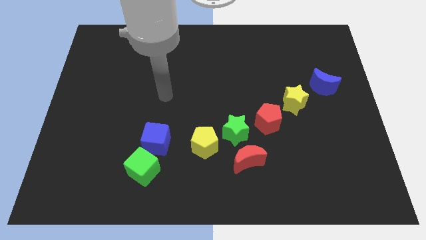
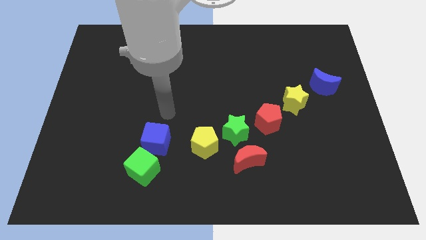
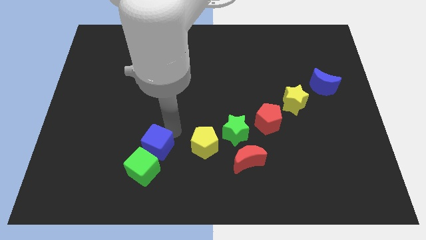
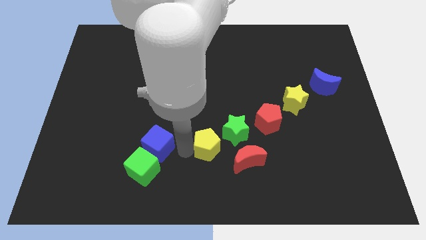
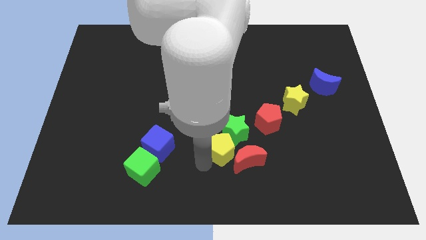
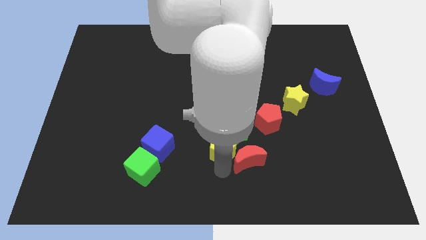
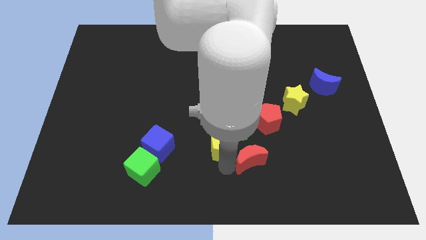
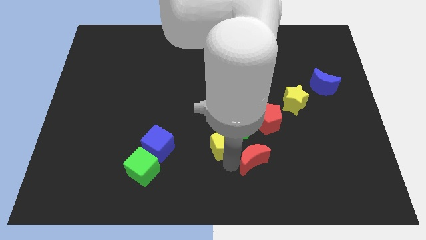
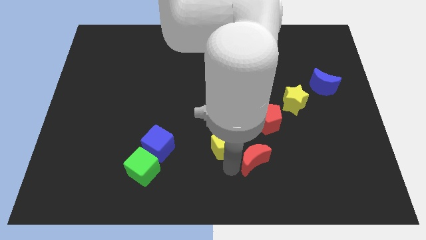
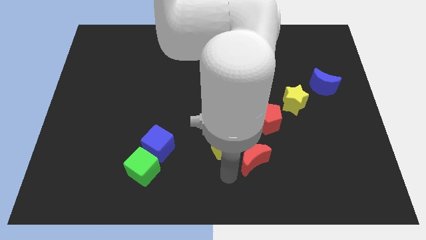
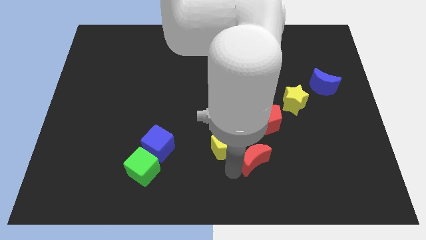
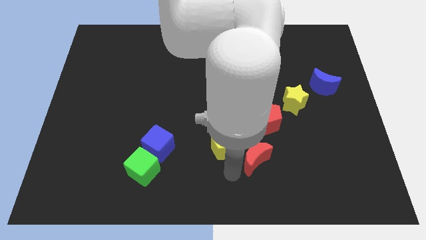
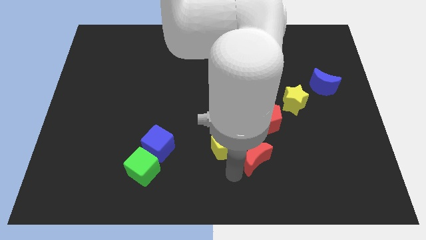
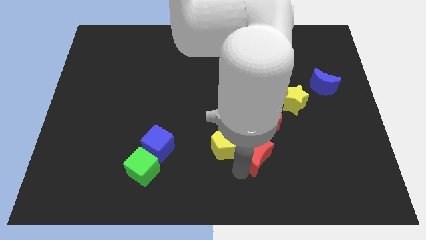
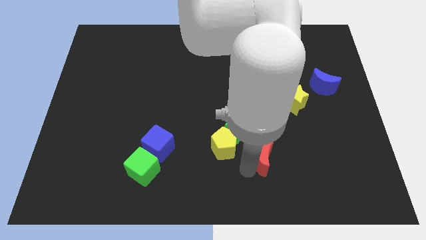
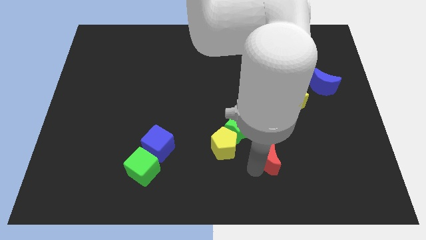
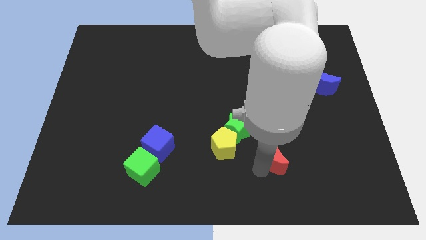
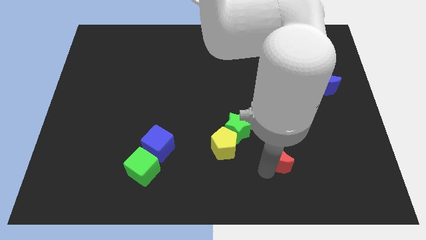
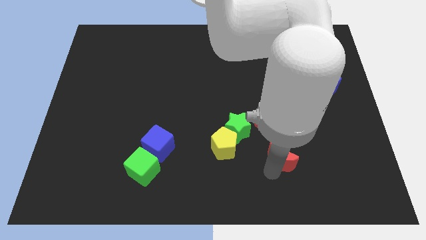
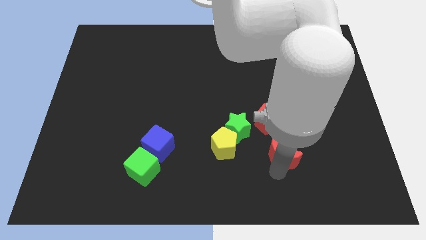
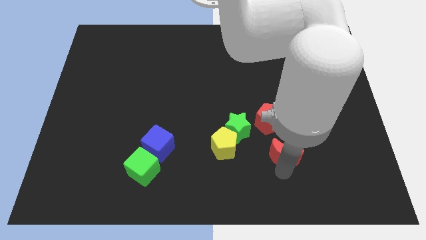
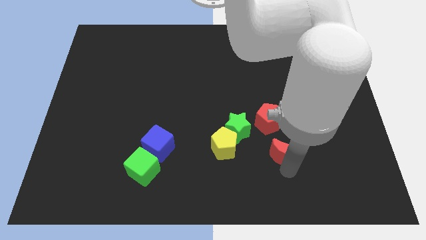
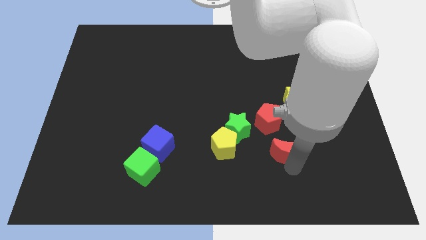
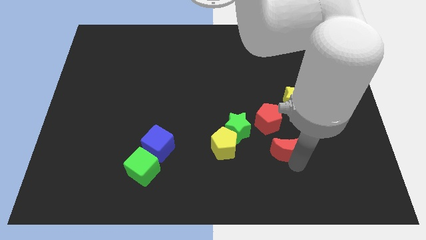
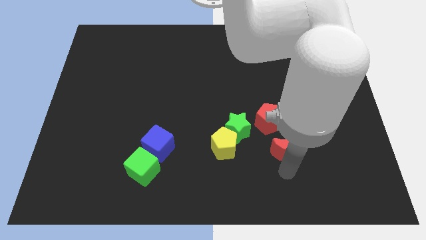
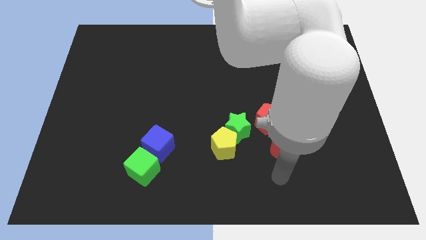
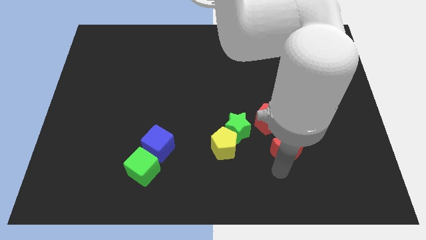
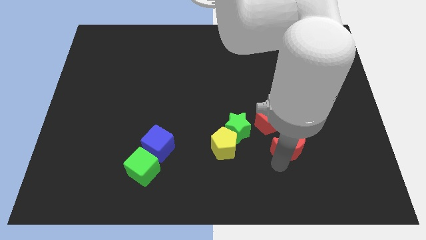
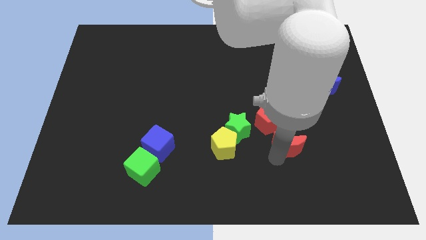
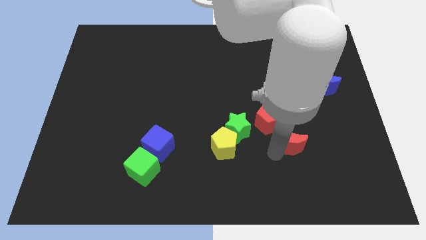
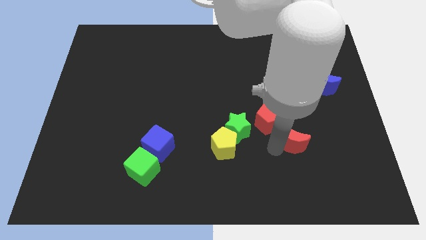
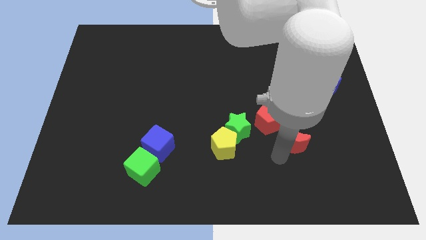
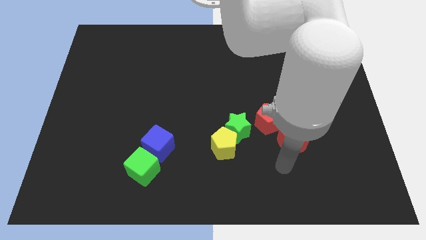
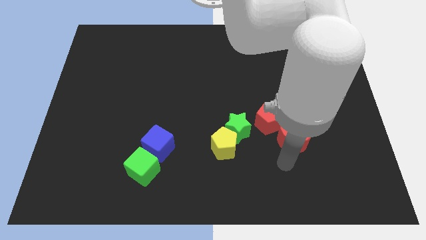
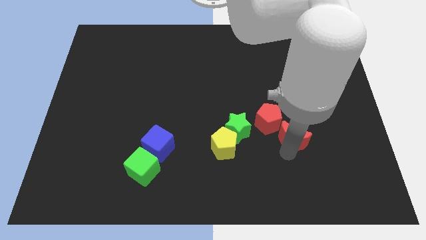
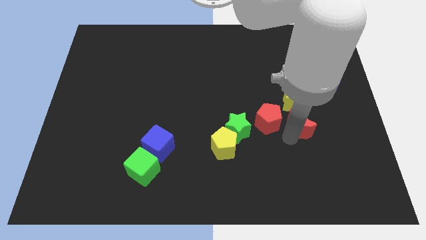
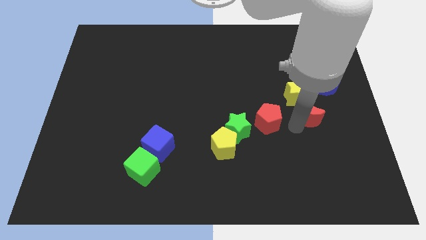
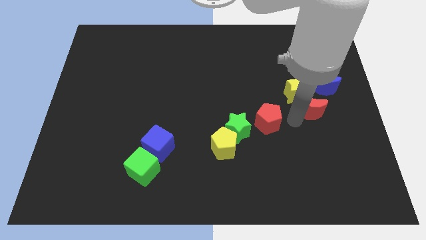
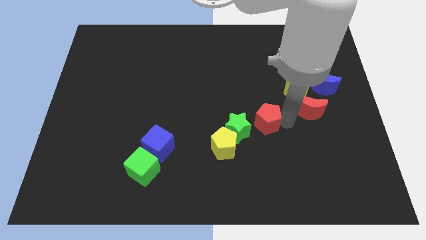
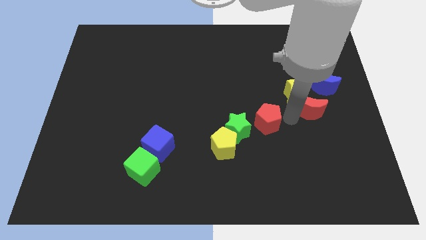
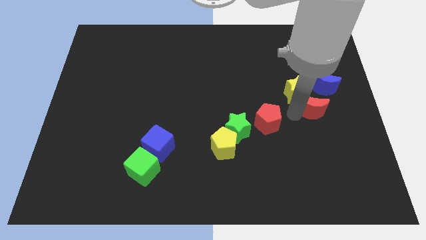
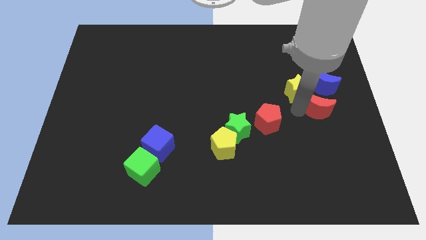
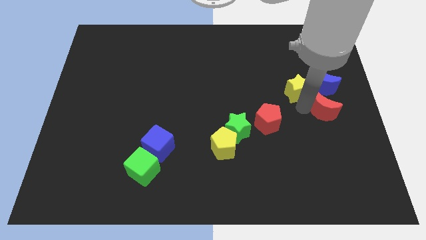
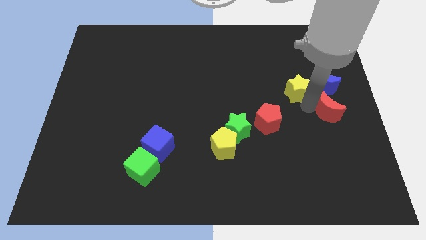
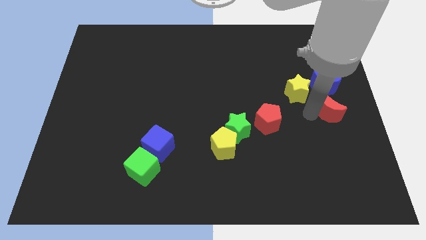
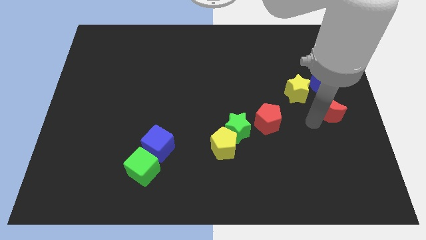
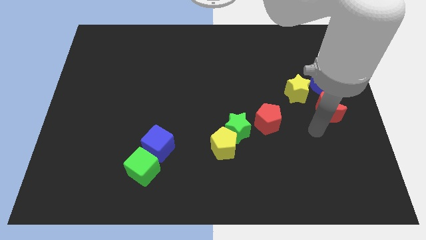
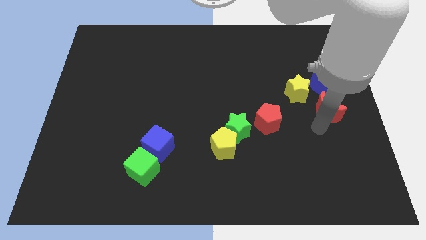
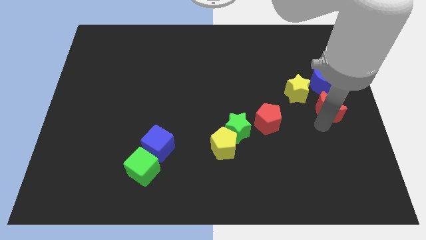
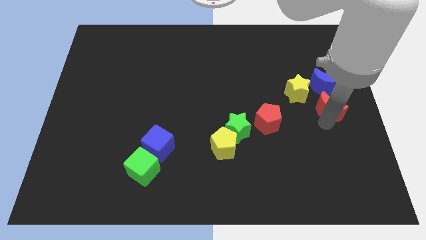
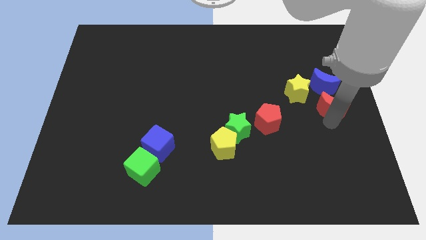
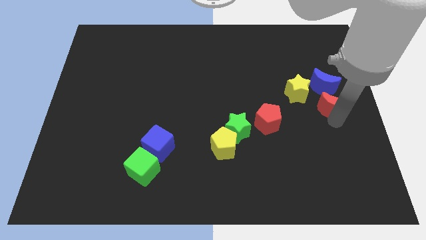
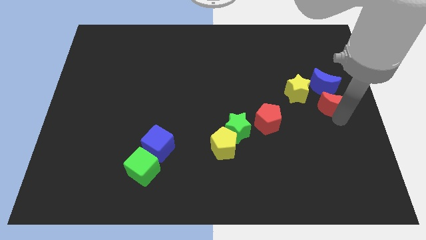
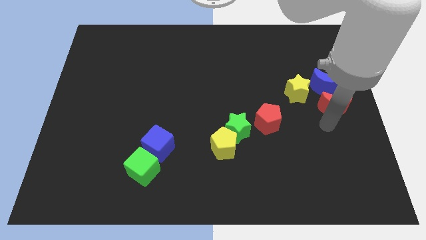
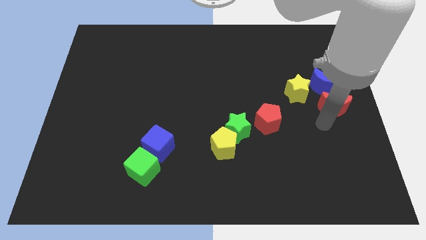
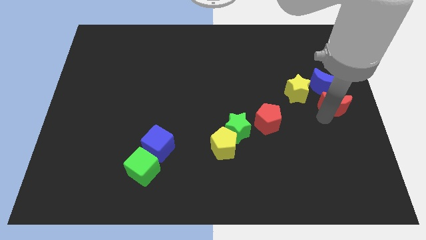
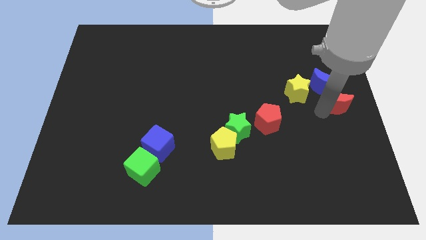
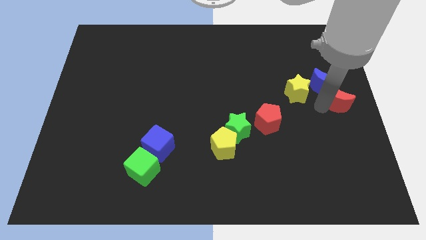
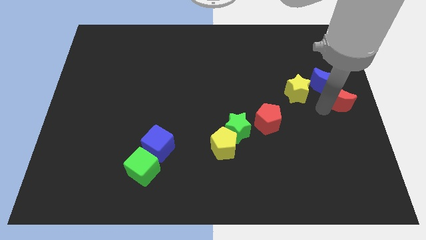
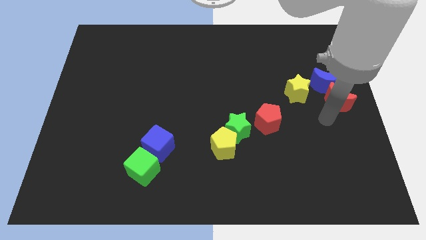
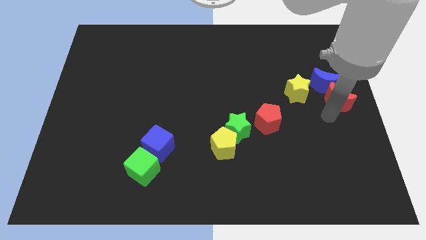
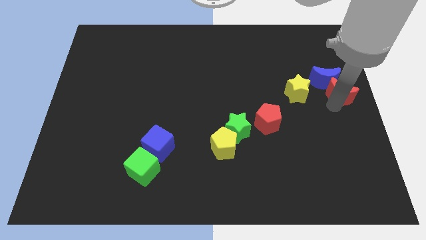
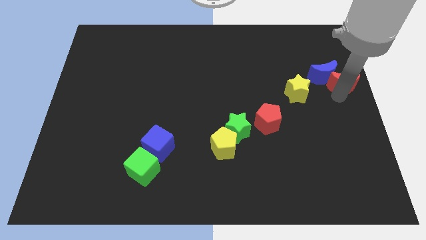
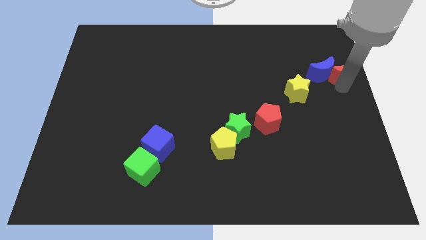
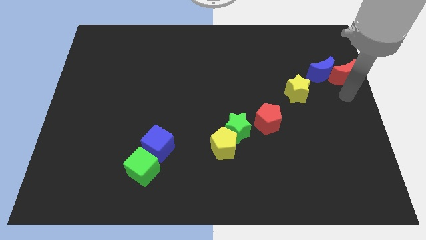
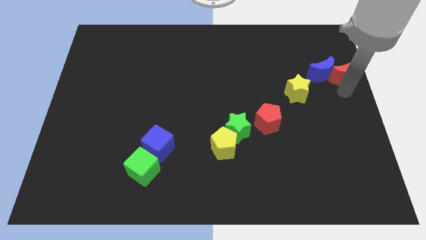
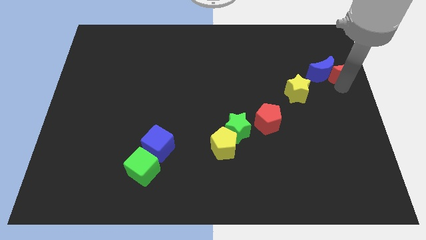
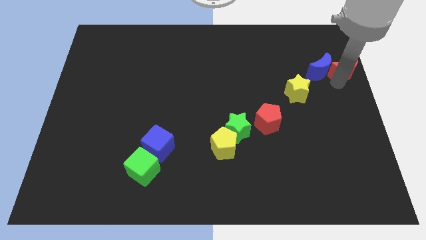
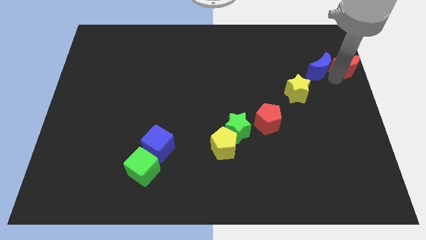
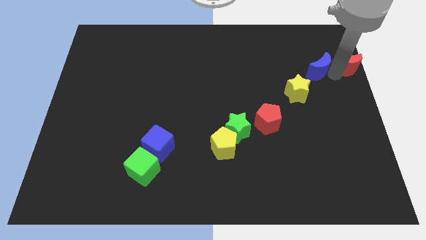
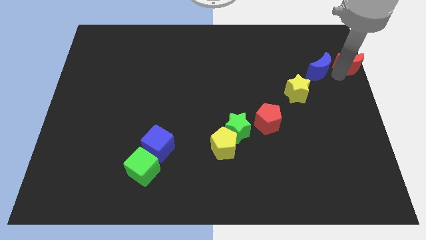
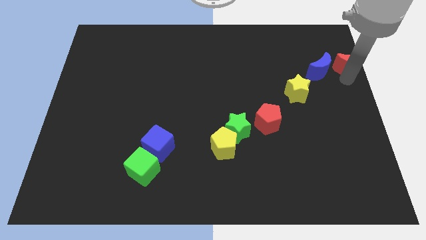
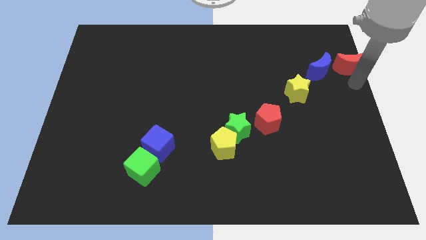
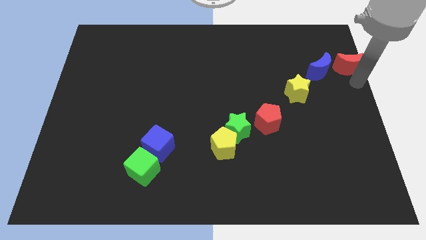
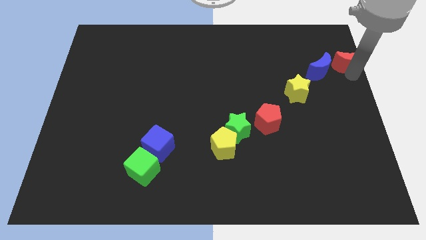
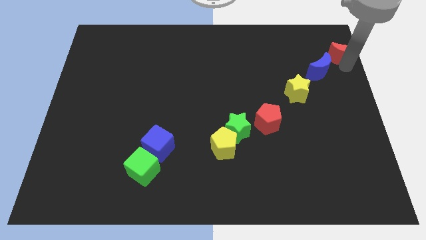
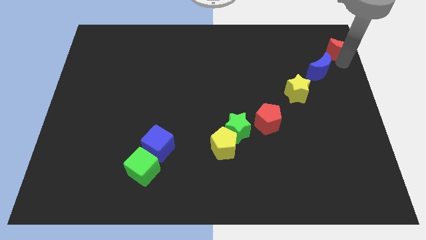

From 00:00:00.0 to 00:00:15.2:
put the red moon to the top right of the board
